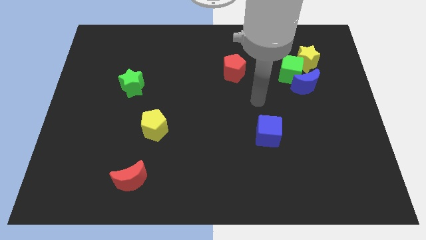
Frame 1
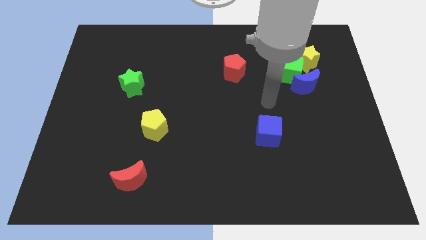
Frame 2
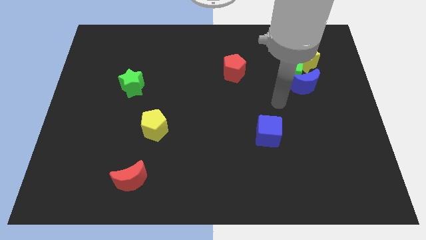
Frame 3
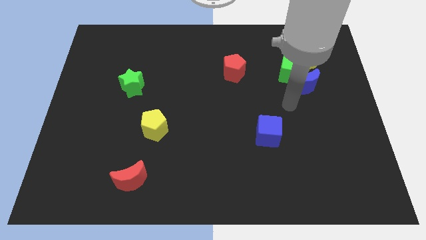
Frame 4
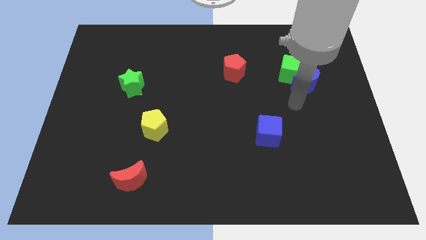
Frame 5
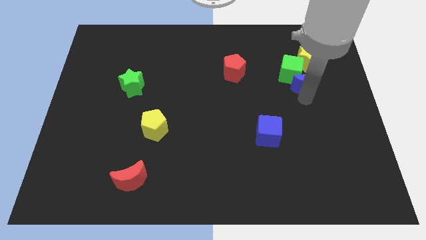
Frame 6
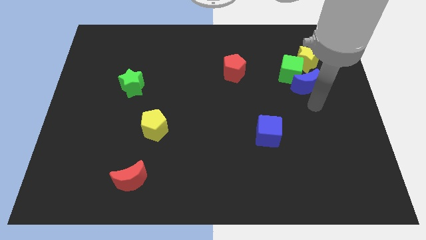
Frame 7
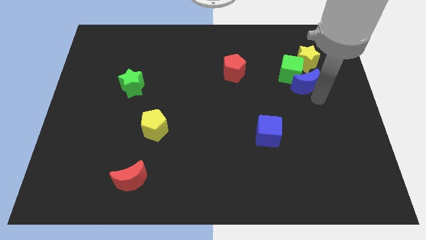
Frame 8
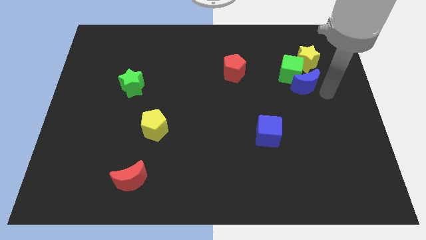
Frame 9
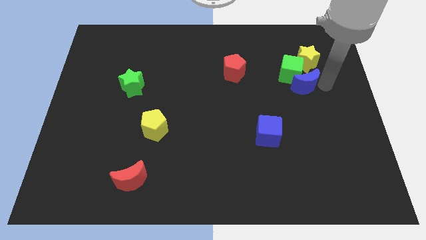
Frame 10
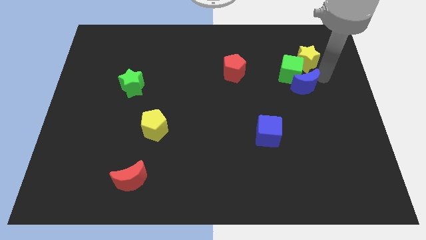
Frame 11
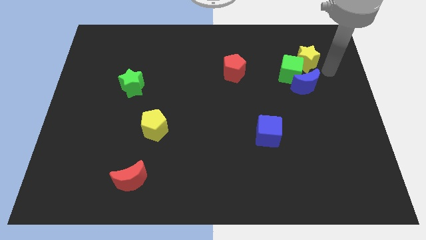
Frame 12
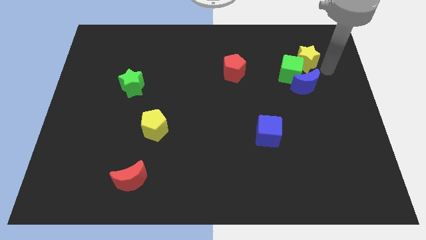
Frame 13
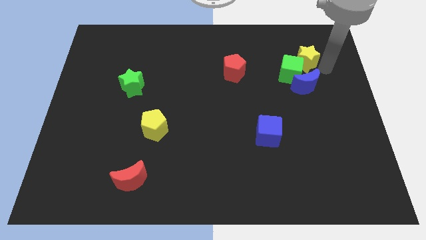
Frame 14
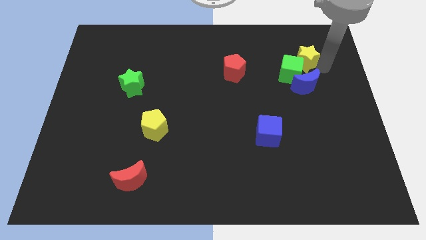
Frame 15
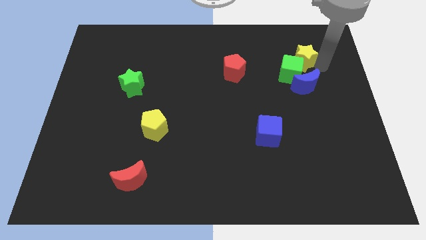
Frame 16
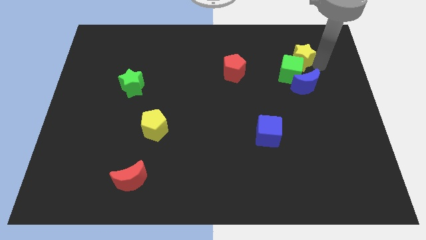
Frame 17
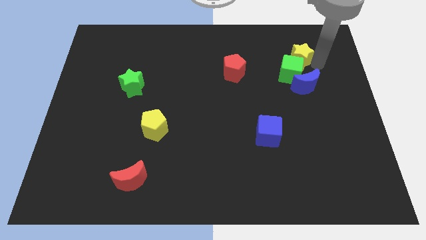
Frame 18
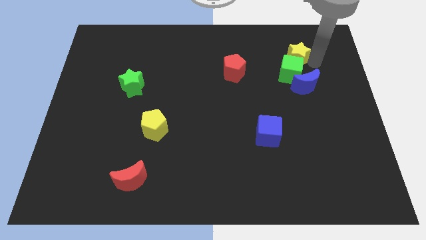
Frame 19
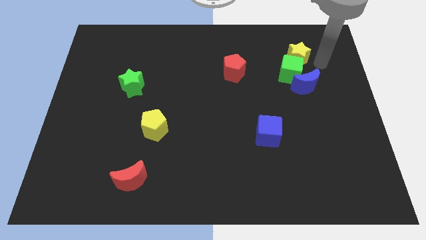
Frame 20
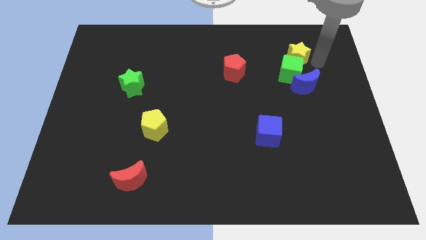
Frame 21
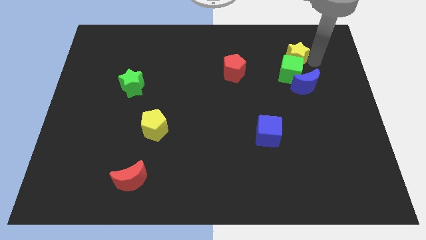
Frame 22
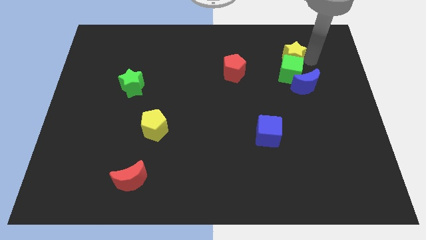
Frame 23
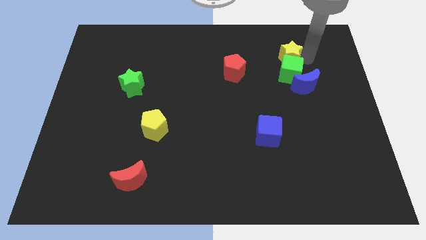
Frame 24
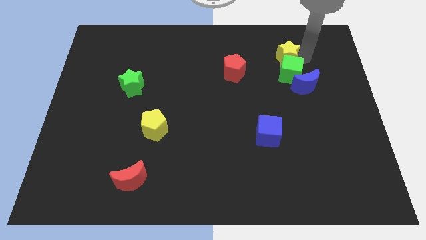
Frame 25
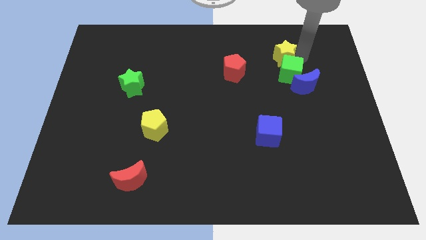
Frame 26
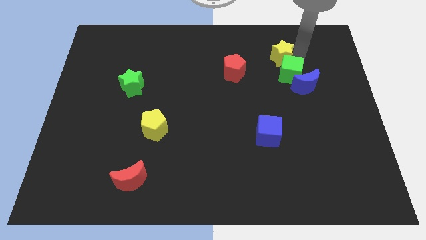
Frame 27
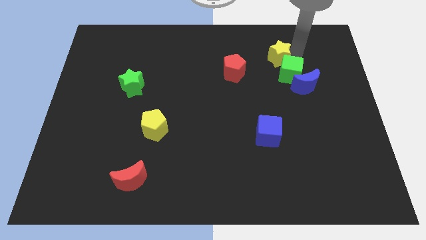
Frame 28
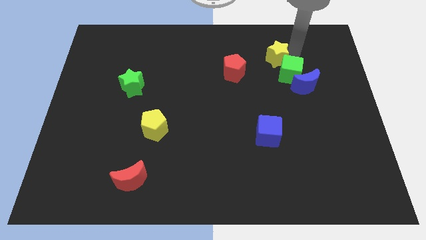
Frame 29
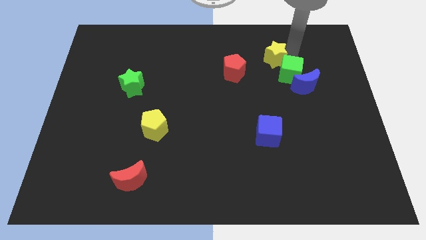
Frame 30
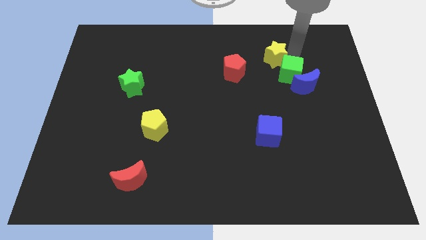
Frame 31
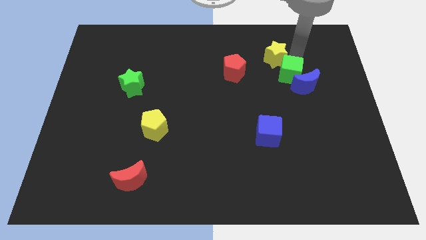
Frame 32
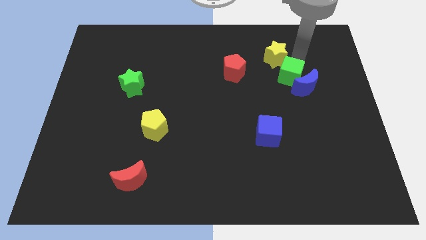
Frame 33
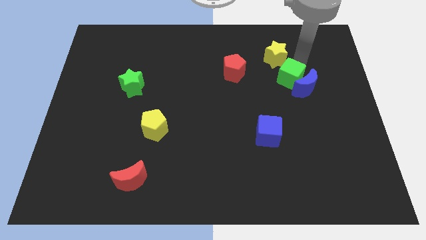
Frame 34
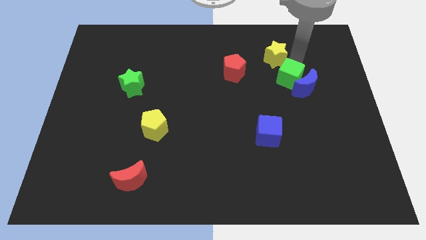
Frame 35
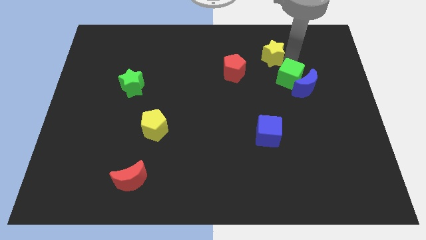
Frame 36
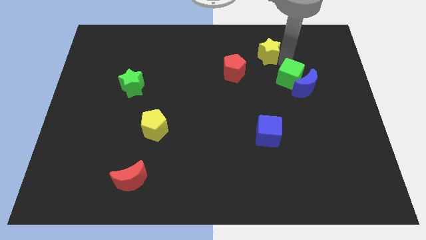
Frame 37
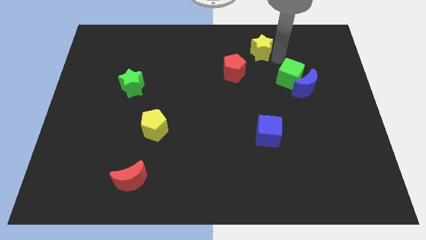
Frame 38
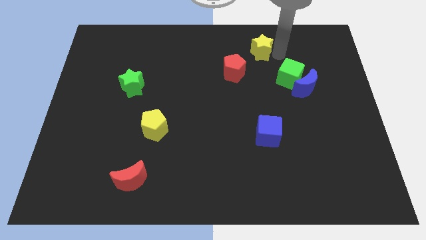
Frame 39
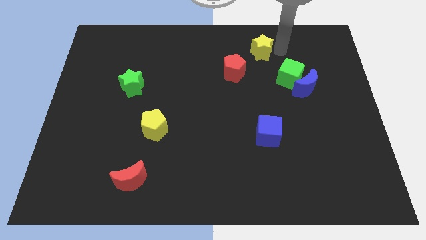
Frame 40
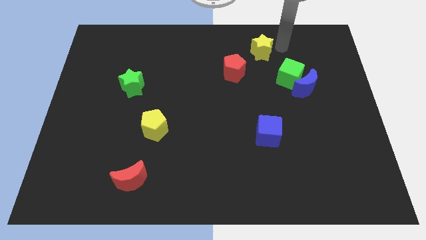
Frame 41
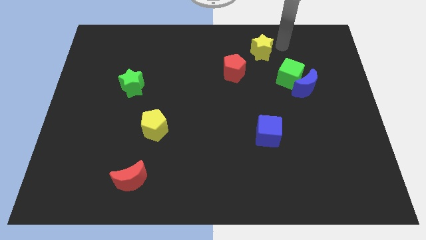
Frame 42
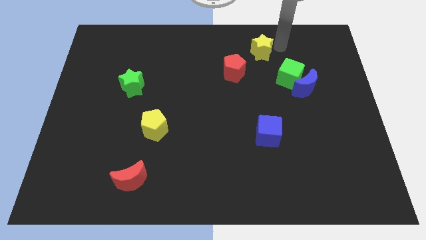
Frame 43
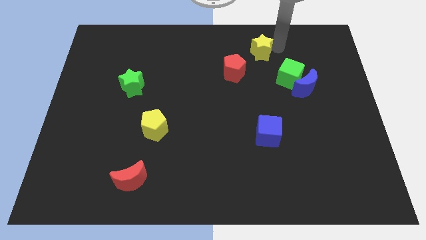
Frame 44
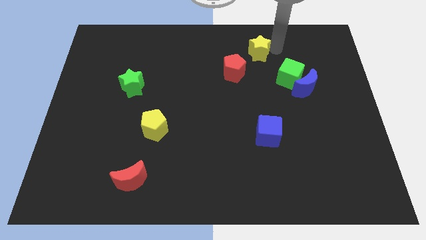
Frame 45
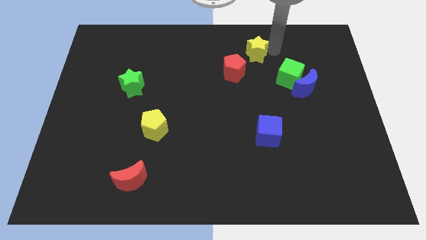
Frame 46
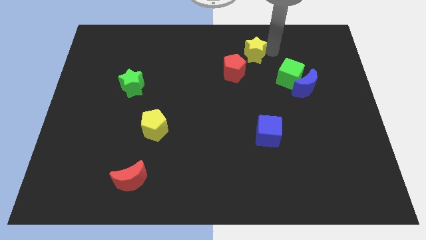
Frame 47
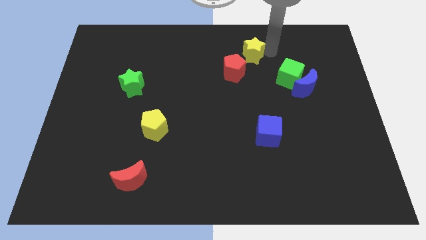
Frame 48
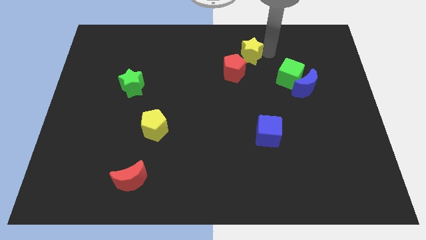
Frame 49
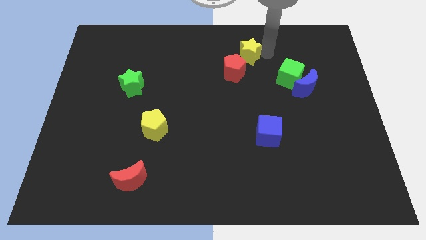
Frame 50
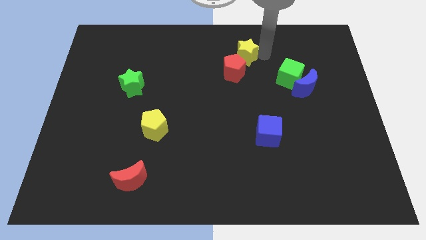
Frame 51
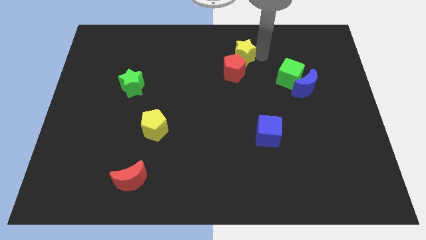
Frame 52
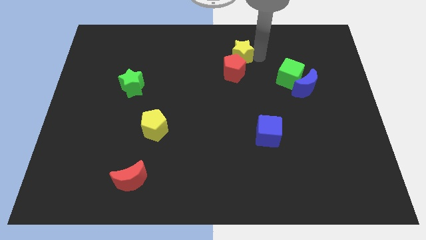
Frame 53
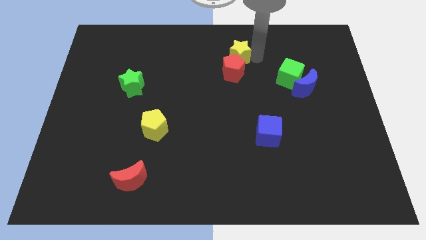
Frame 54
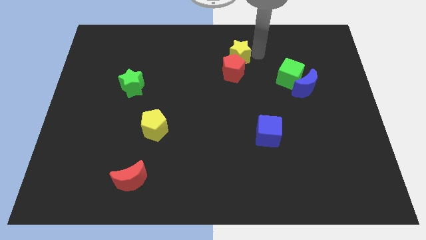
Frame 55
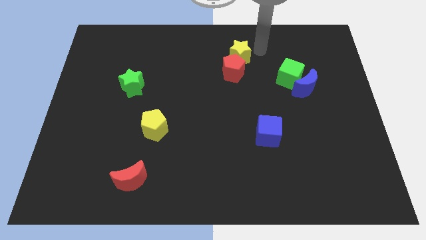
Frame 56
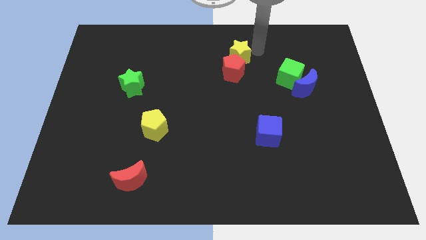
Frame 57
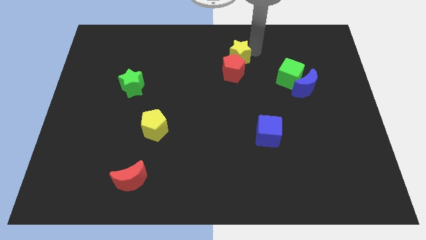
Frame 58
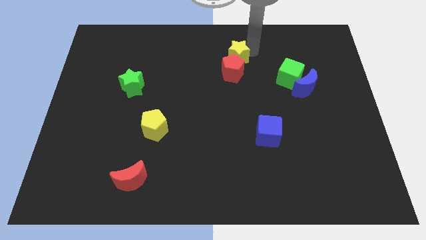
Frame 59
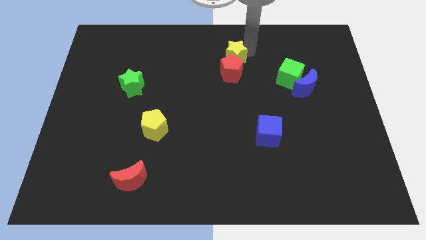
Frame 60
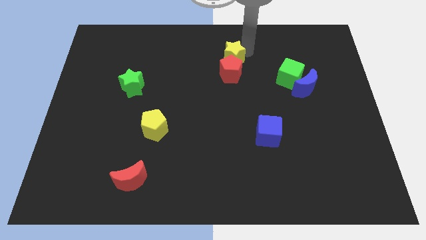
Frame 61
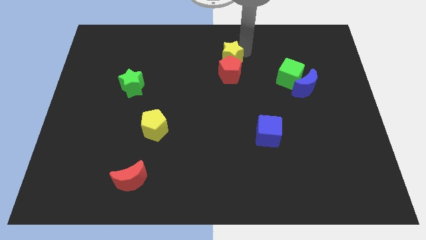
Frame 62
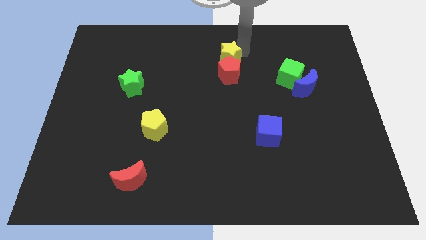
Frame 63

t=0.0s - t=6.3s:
move the yellow star left

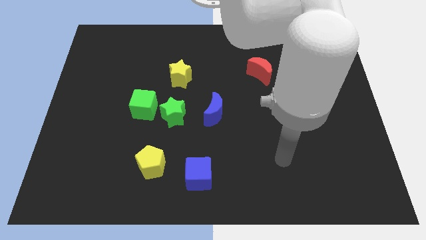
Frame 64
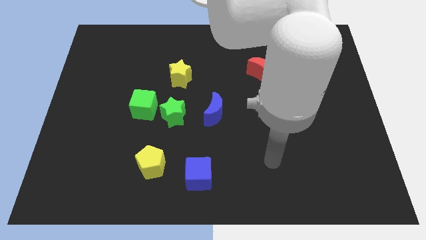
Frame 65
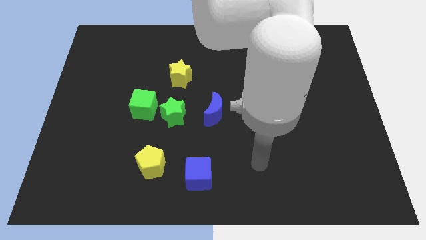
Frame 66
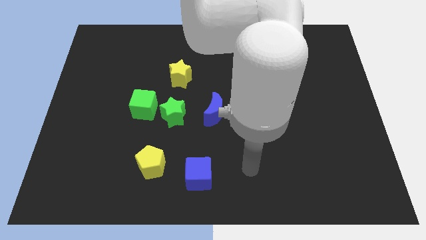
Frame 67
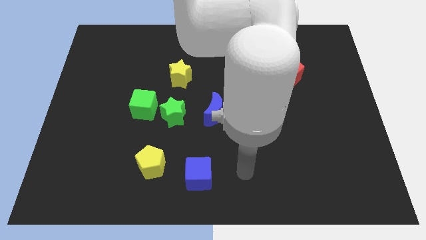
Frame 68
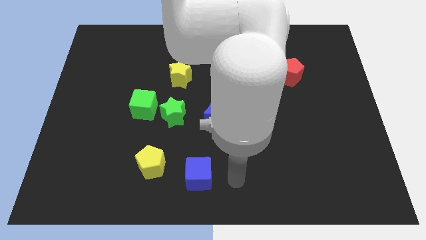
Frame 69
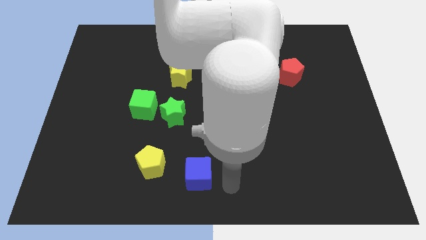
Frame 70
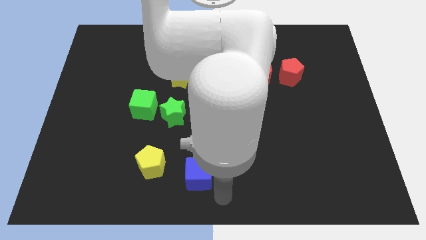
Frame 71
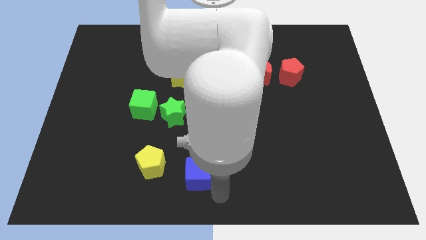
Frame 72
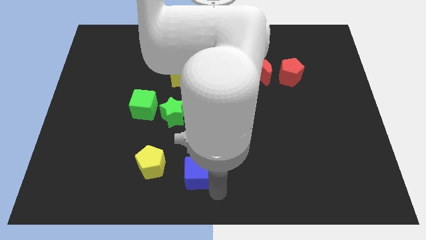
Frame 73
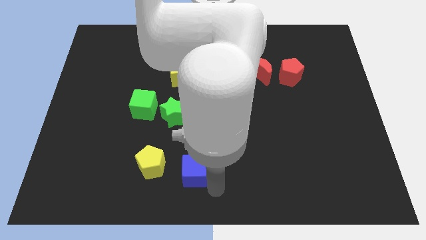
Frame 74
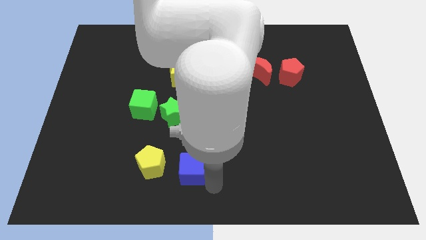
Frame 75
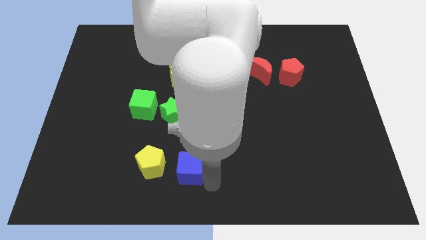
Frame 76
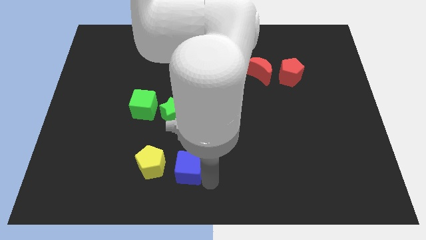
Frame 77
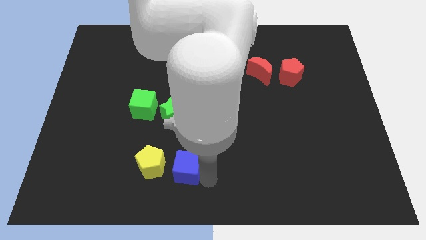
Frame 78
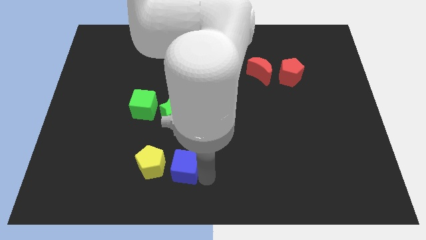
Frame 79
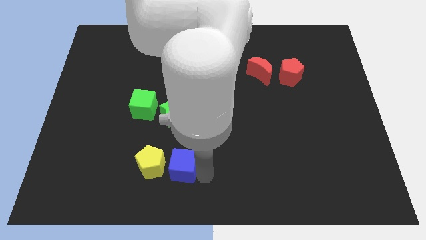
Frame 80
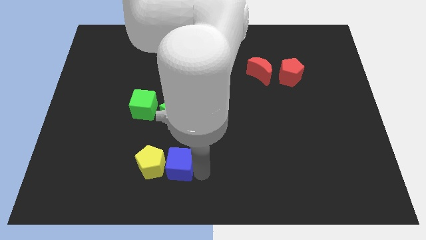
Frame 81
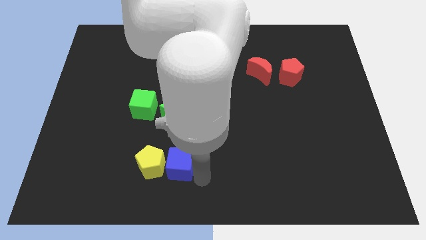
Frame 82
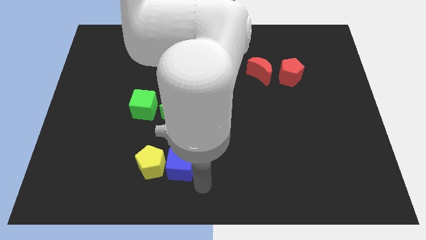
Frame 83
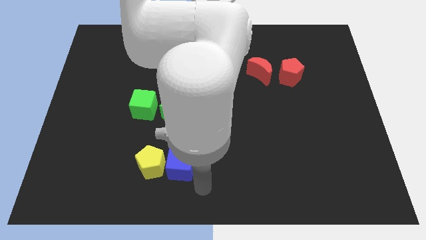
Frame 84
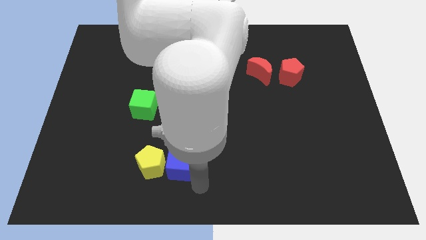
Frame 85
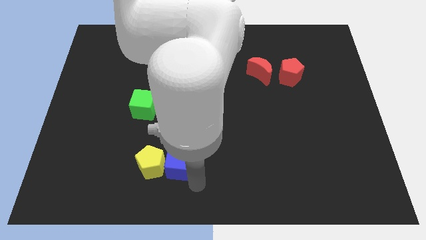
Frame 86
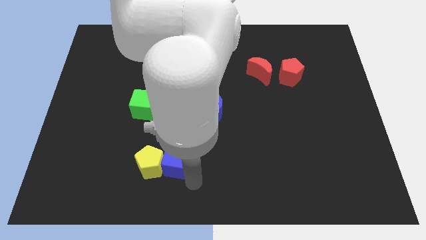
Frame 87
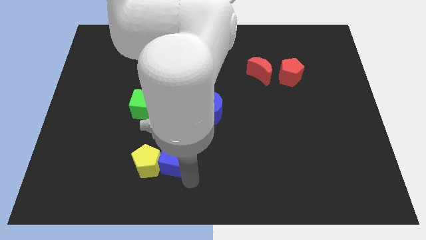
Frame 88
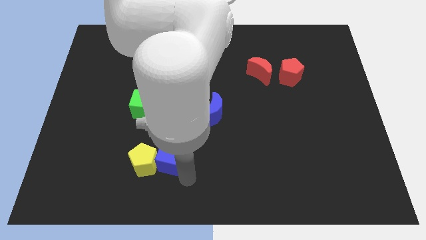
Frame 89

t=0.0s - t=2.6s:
slide the blue cube slightly upwards and then left
